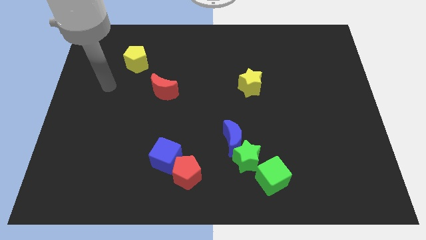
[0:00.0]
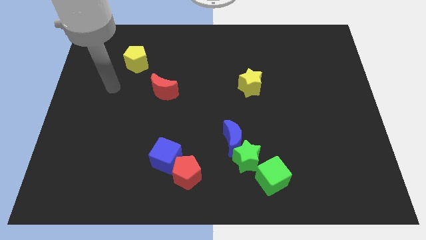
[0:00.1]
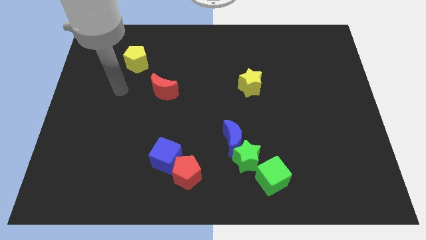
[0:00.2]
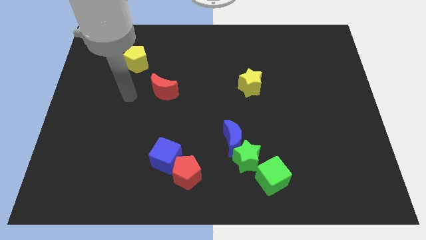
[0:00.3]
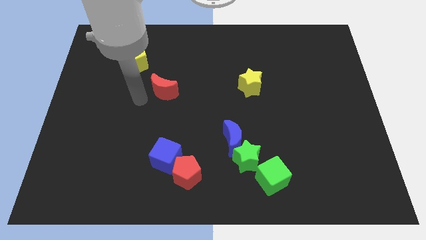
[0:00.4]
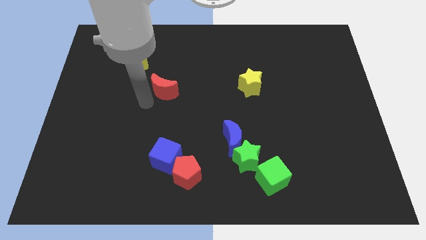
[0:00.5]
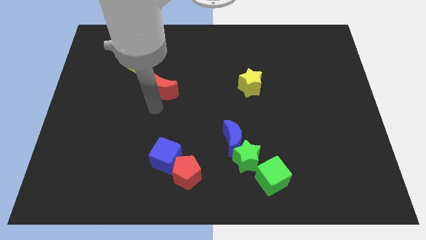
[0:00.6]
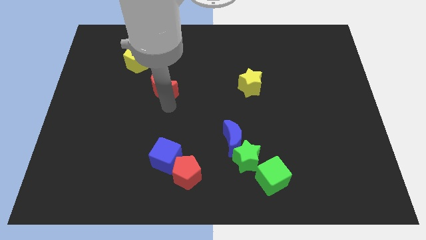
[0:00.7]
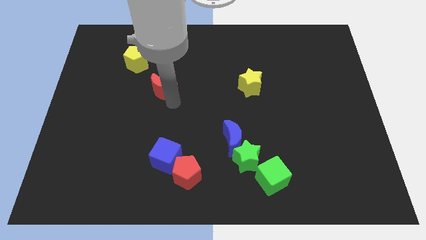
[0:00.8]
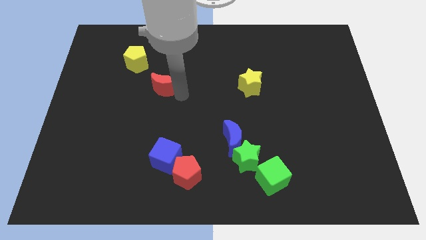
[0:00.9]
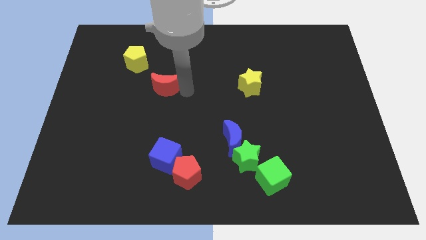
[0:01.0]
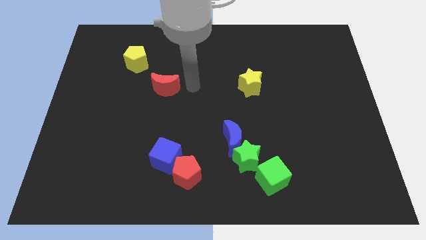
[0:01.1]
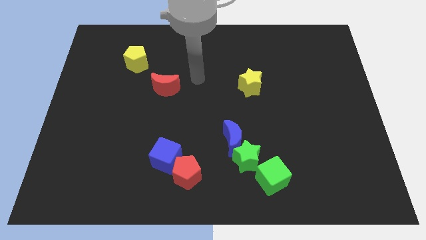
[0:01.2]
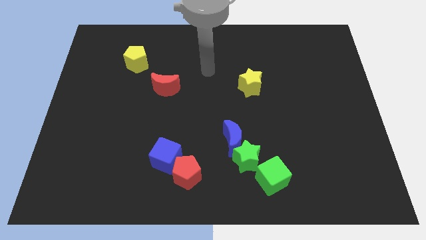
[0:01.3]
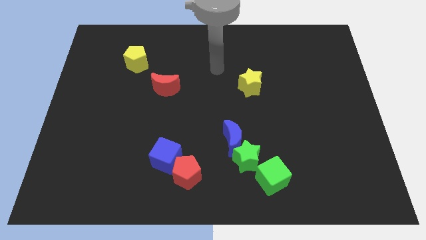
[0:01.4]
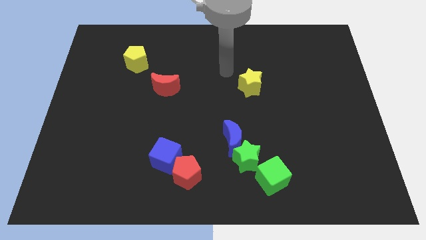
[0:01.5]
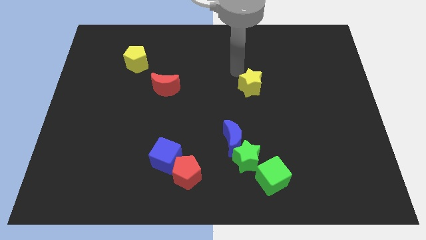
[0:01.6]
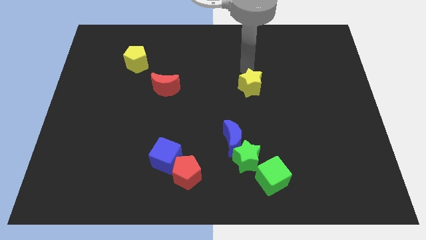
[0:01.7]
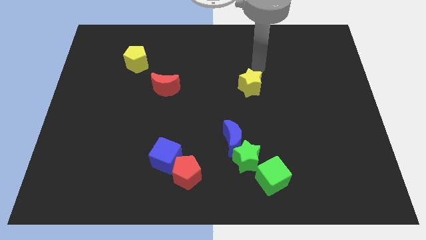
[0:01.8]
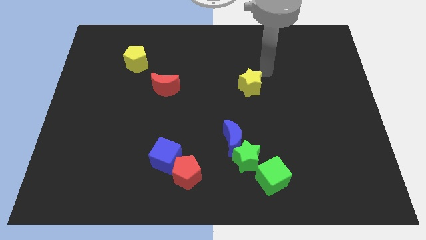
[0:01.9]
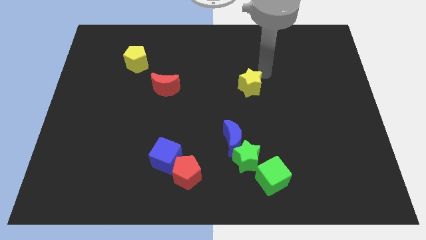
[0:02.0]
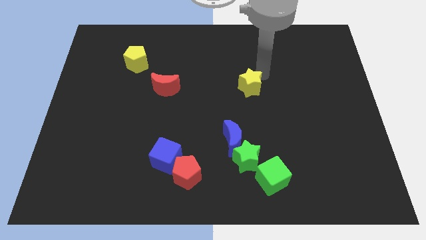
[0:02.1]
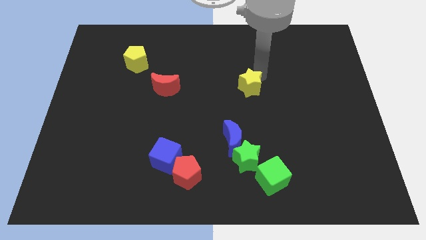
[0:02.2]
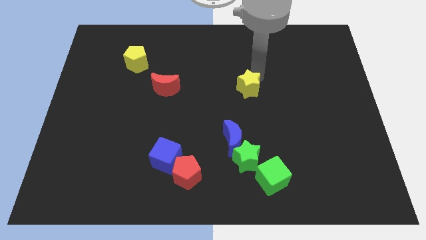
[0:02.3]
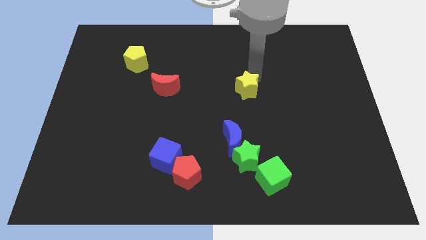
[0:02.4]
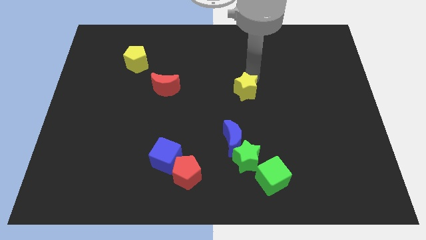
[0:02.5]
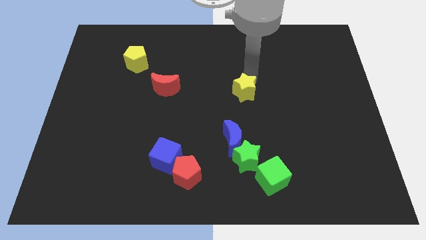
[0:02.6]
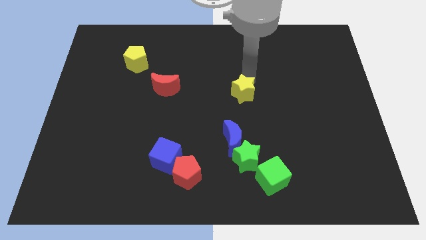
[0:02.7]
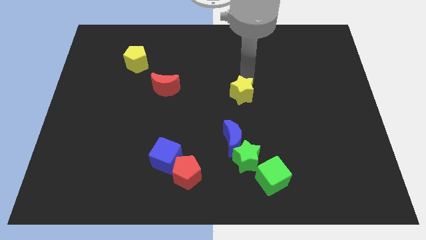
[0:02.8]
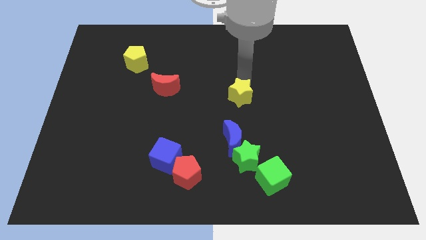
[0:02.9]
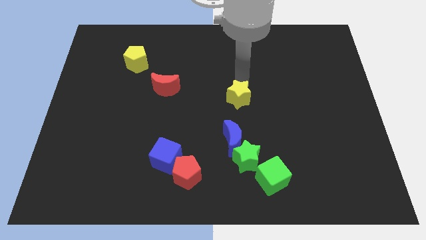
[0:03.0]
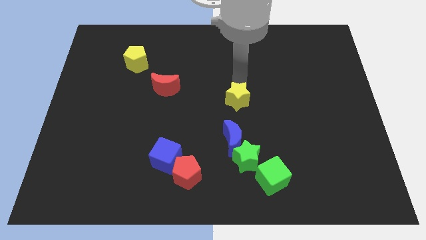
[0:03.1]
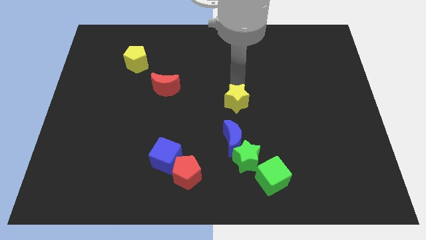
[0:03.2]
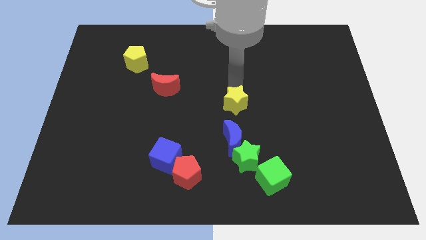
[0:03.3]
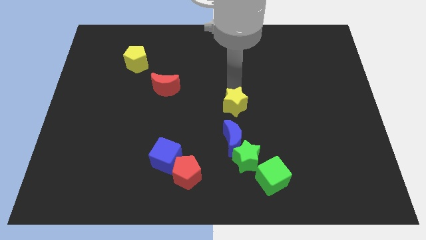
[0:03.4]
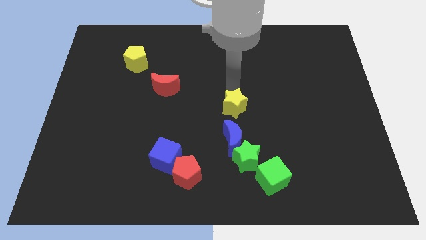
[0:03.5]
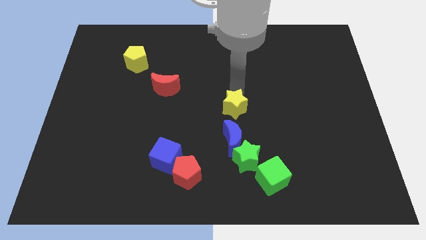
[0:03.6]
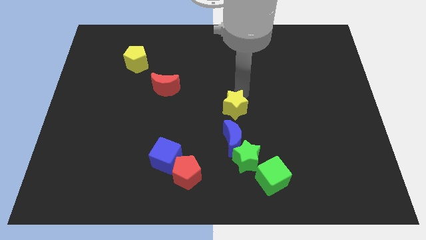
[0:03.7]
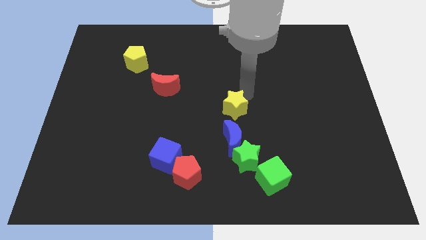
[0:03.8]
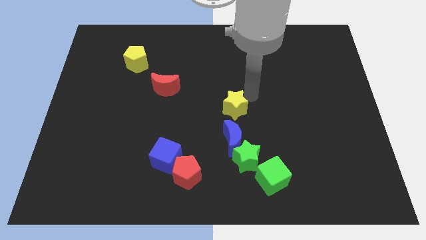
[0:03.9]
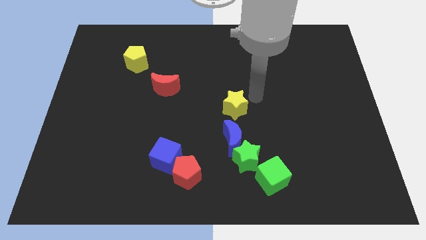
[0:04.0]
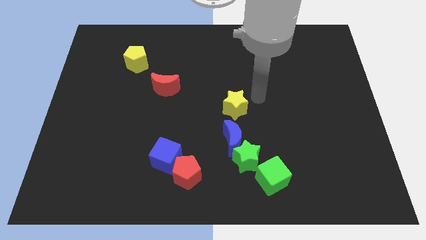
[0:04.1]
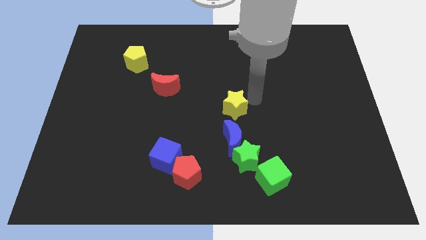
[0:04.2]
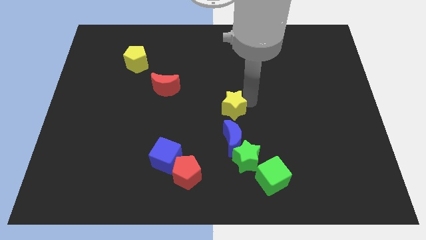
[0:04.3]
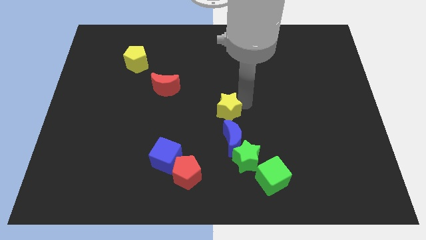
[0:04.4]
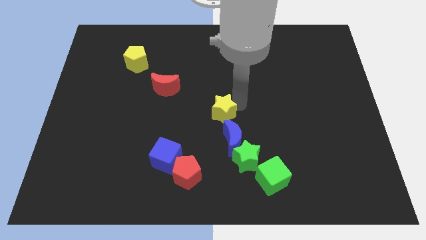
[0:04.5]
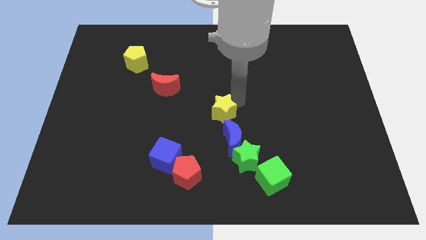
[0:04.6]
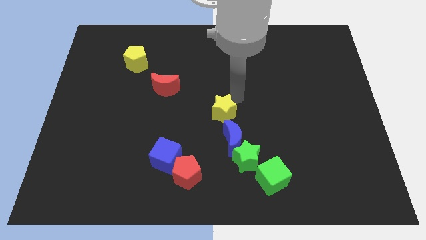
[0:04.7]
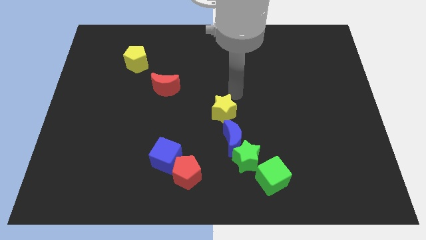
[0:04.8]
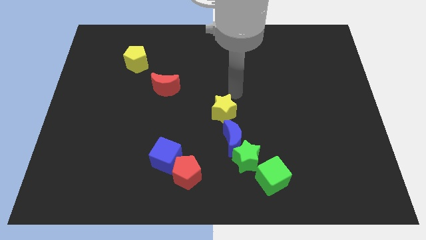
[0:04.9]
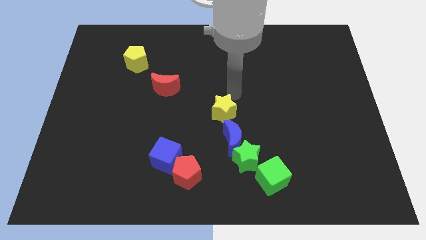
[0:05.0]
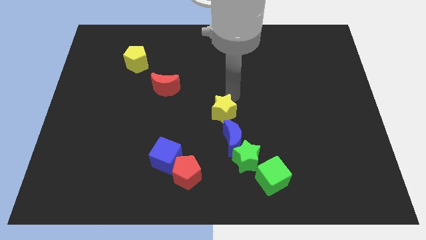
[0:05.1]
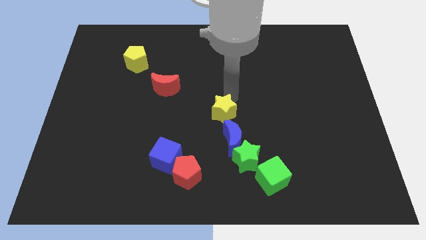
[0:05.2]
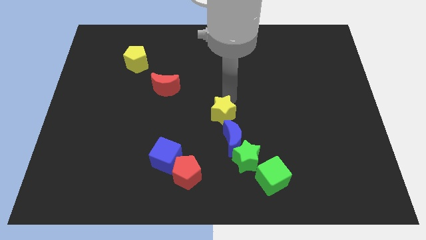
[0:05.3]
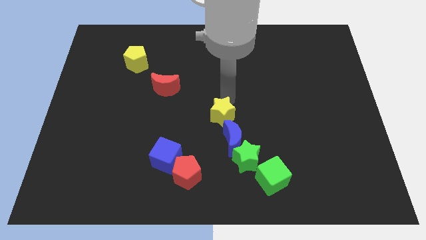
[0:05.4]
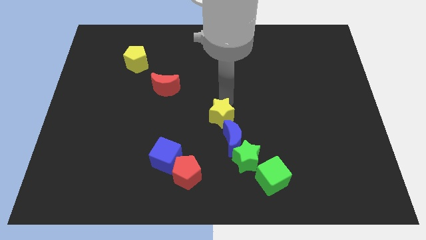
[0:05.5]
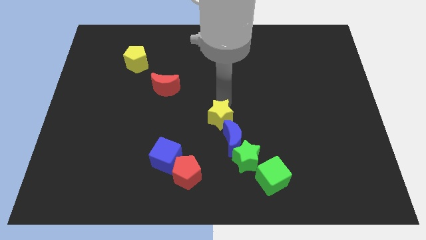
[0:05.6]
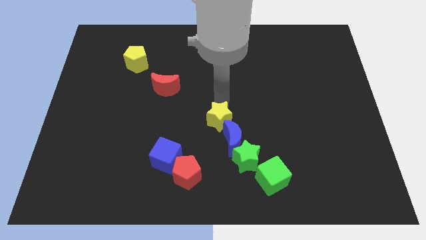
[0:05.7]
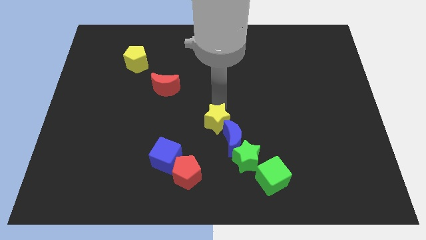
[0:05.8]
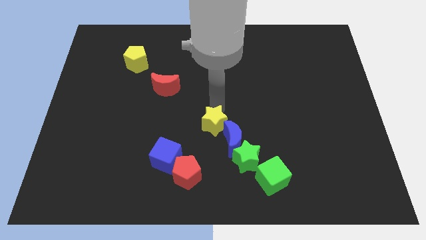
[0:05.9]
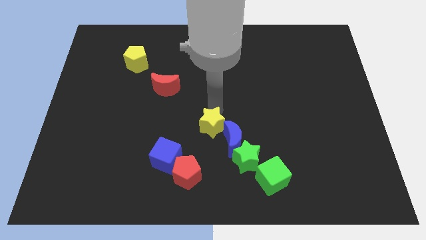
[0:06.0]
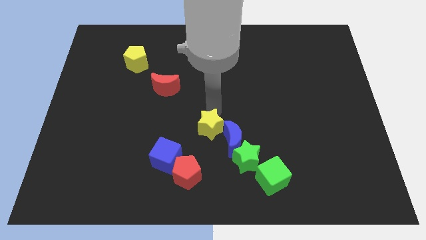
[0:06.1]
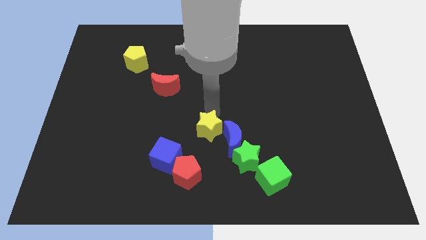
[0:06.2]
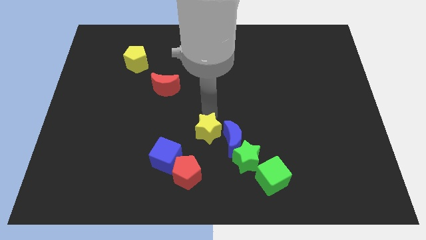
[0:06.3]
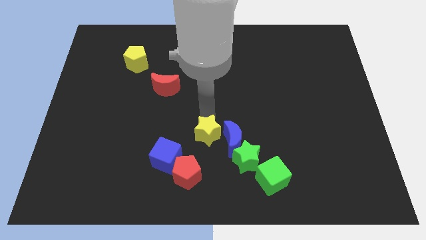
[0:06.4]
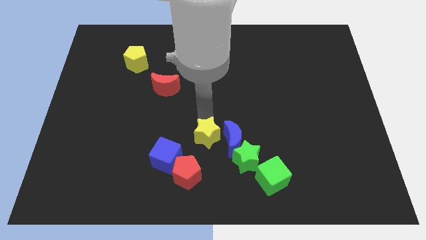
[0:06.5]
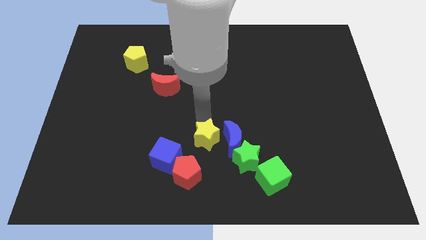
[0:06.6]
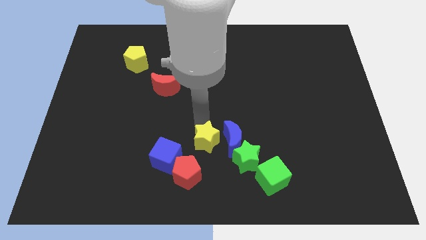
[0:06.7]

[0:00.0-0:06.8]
slide the yellow star left of the green star
